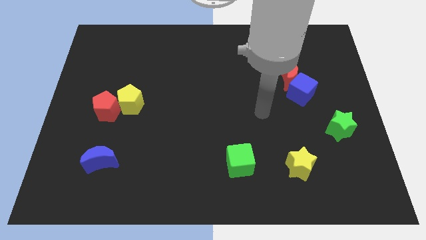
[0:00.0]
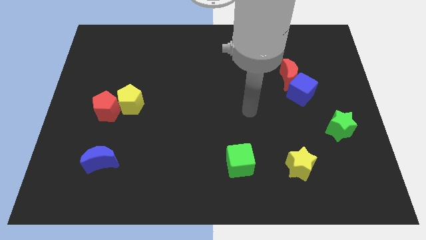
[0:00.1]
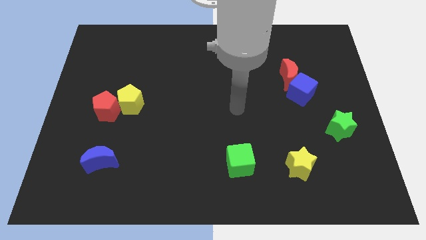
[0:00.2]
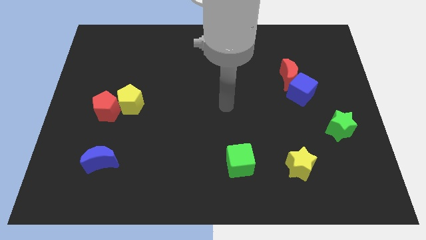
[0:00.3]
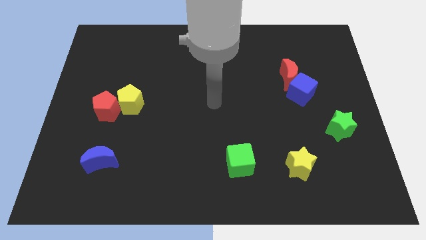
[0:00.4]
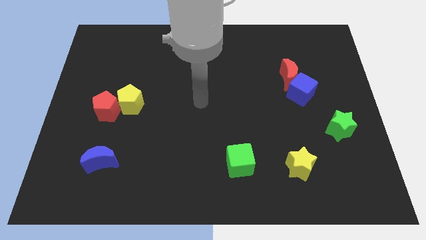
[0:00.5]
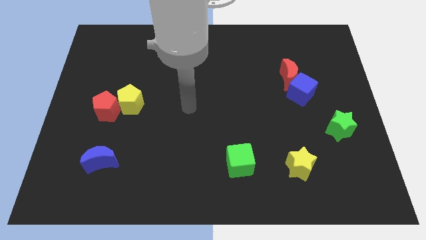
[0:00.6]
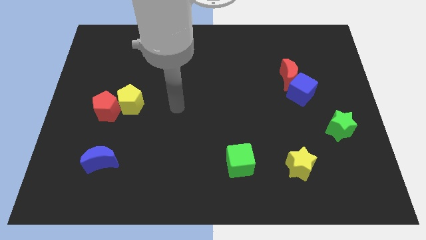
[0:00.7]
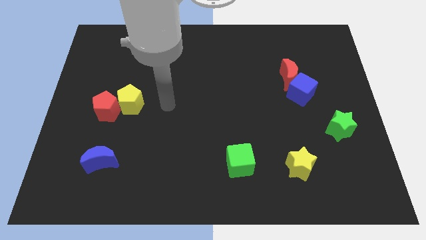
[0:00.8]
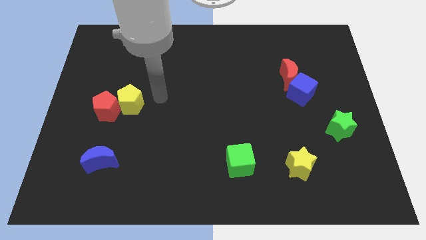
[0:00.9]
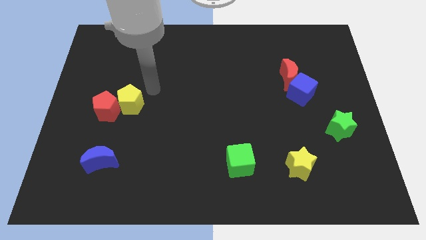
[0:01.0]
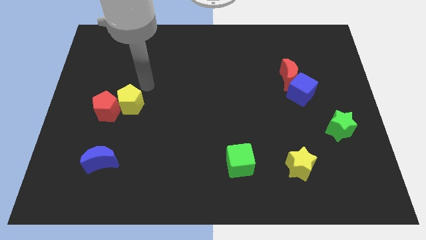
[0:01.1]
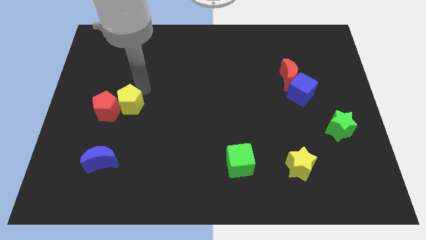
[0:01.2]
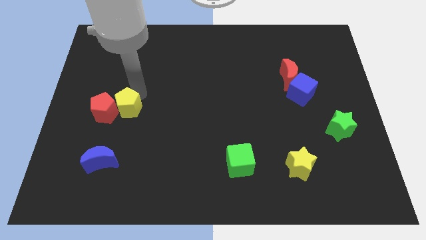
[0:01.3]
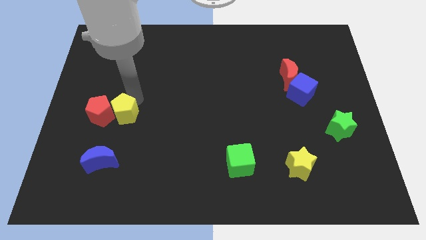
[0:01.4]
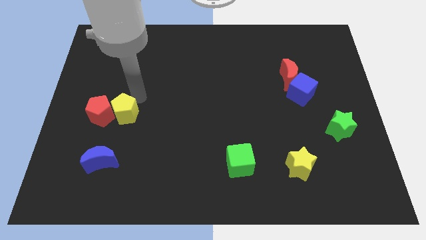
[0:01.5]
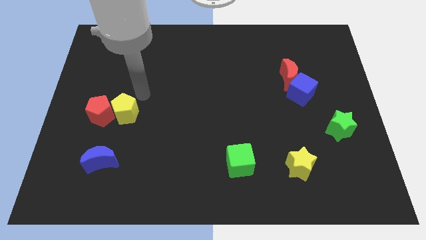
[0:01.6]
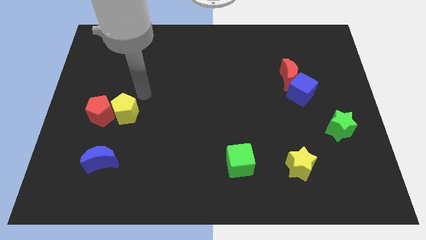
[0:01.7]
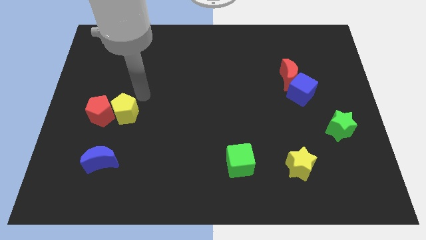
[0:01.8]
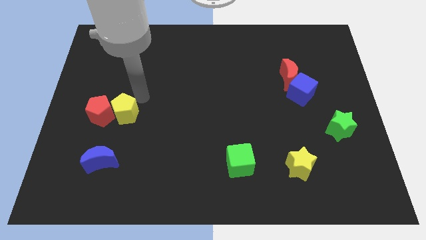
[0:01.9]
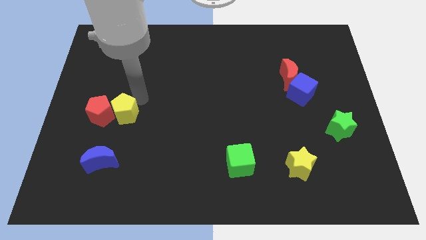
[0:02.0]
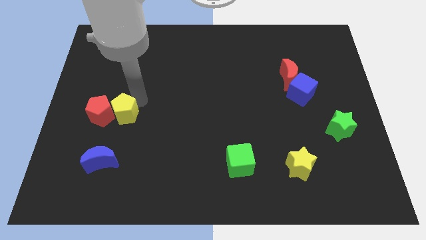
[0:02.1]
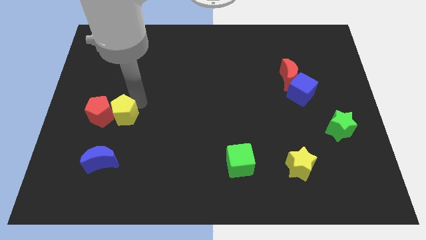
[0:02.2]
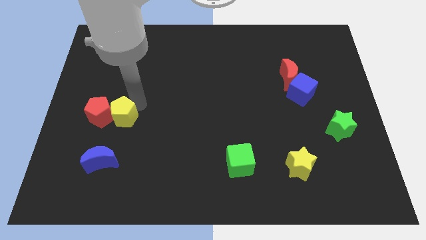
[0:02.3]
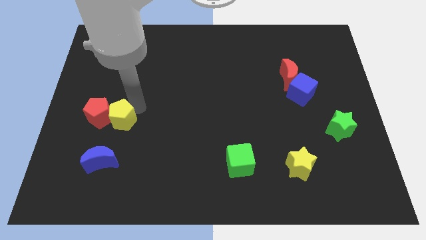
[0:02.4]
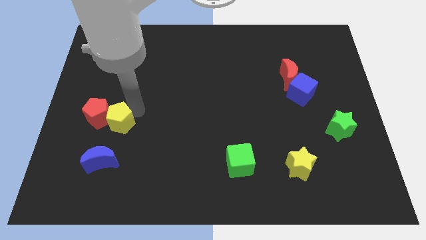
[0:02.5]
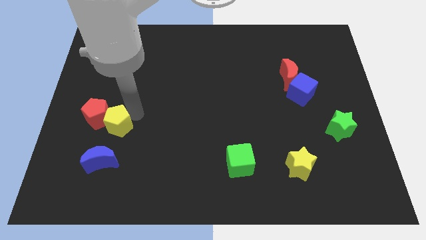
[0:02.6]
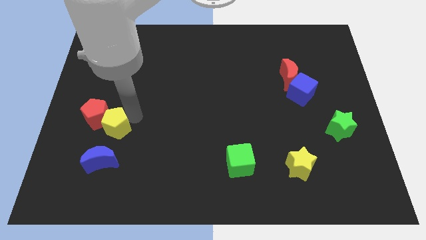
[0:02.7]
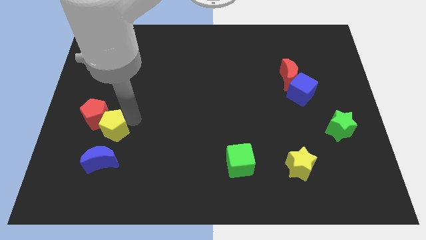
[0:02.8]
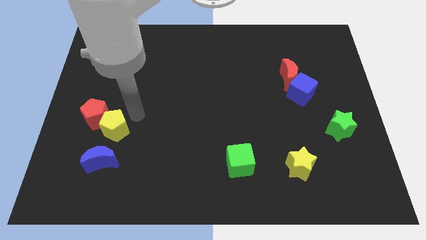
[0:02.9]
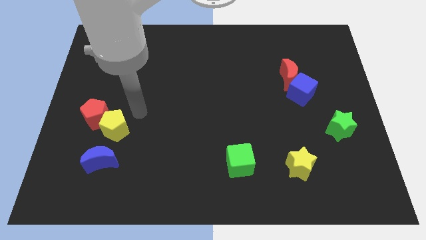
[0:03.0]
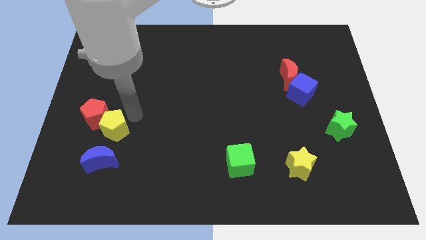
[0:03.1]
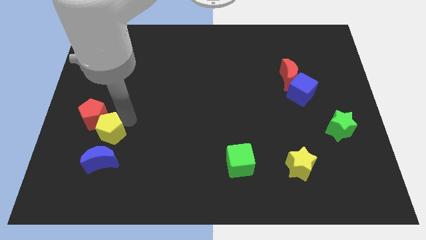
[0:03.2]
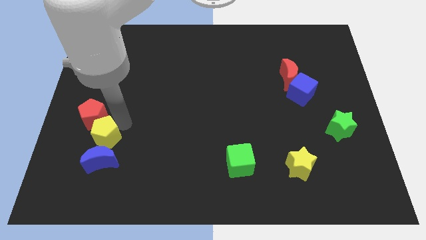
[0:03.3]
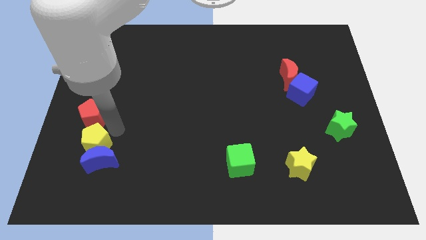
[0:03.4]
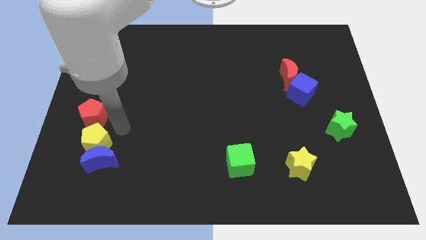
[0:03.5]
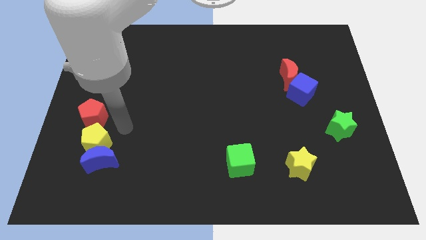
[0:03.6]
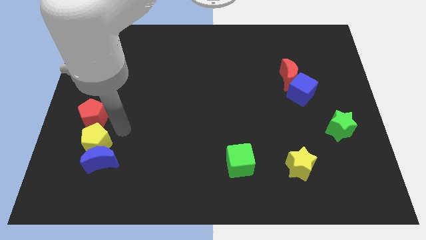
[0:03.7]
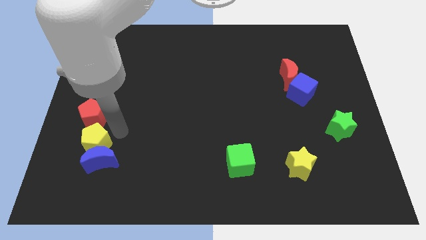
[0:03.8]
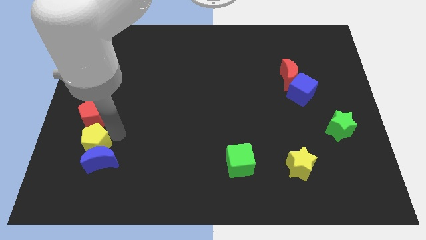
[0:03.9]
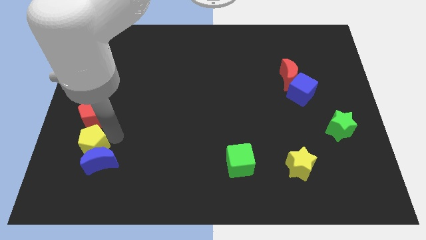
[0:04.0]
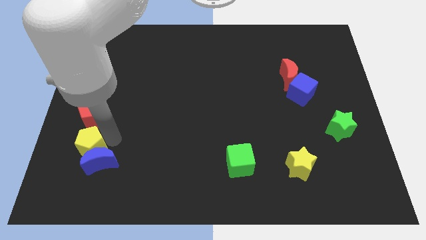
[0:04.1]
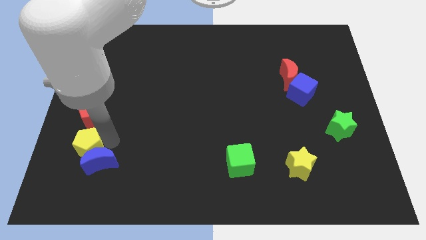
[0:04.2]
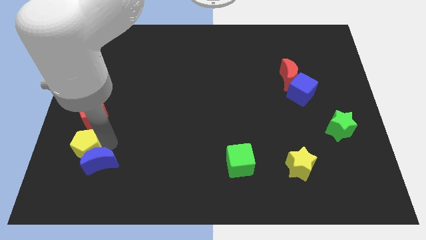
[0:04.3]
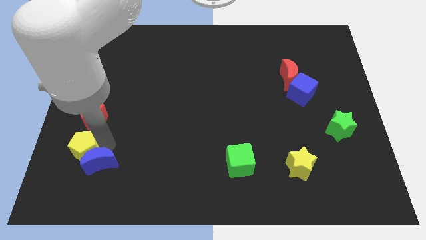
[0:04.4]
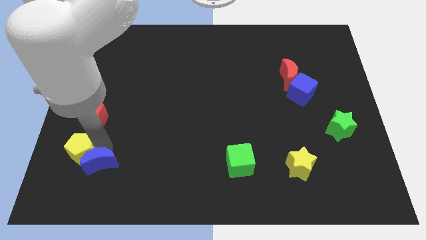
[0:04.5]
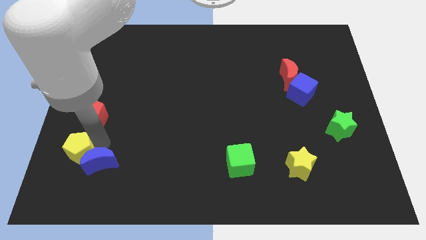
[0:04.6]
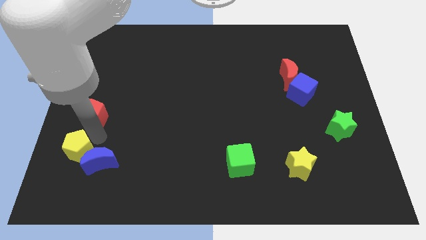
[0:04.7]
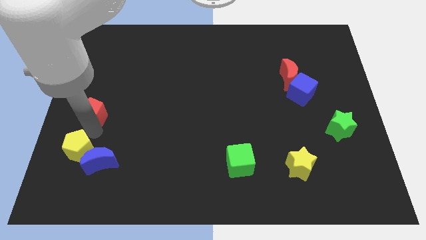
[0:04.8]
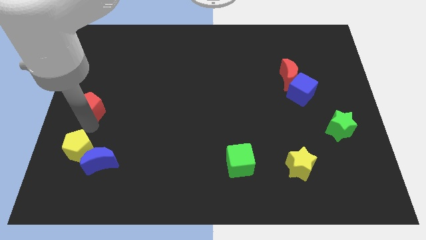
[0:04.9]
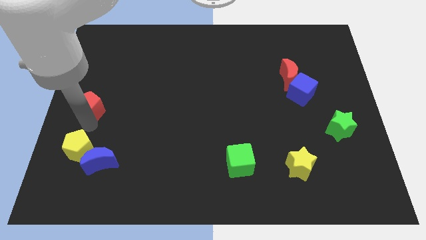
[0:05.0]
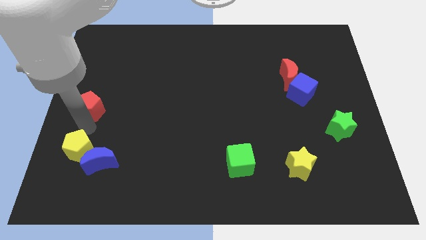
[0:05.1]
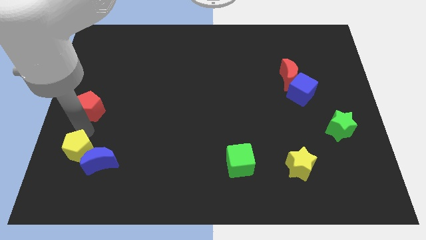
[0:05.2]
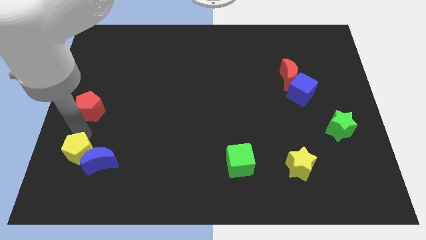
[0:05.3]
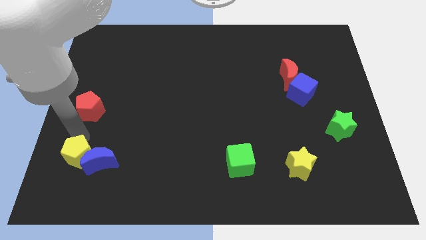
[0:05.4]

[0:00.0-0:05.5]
put the yellow pentagon diagonally down and to the left of the blue moon

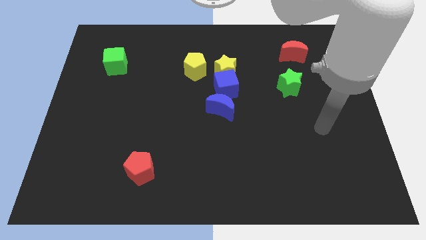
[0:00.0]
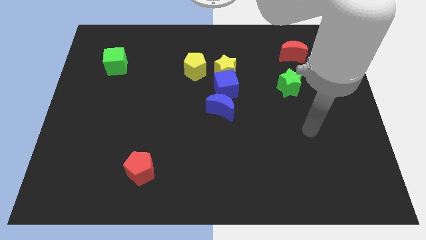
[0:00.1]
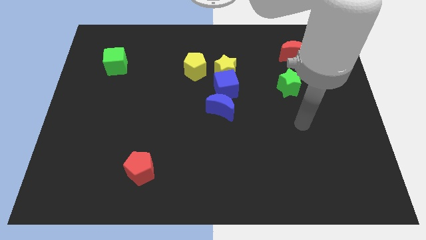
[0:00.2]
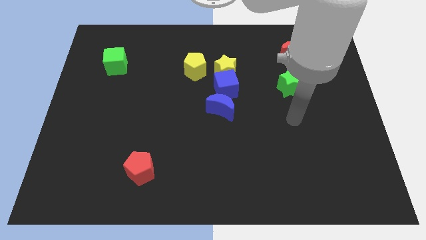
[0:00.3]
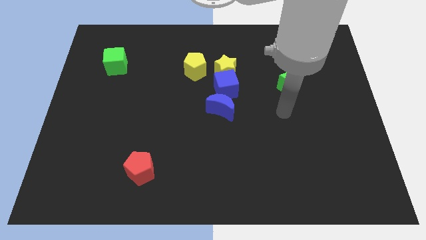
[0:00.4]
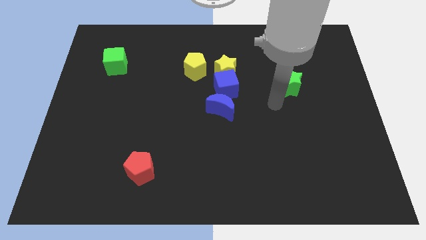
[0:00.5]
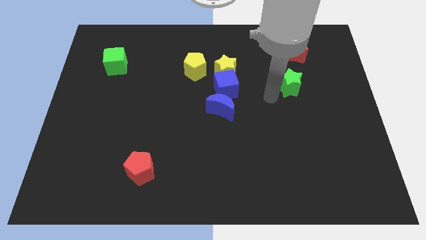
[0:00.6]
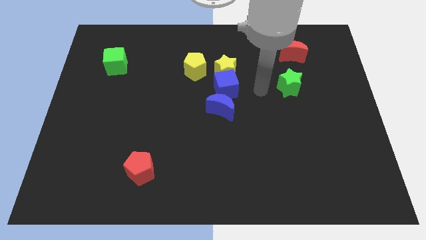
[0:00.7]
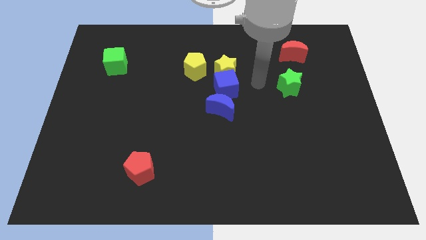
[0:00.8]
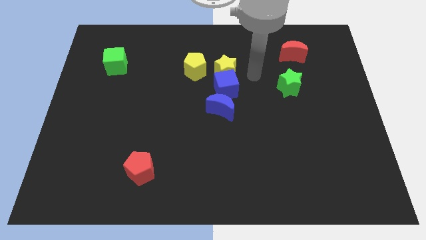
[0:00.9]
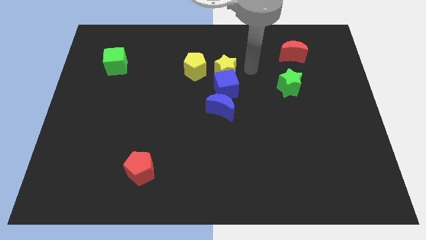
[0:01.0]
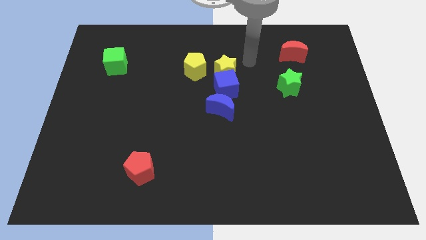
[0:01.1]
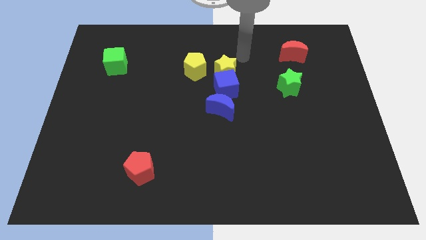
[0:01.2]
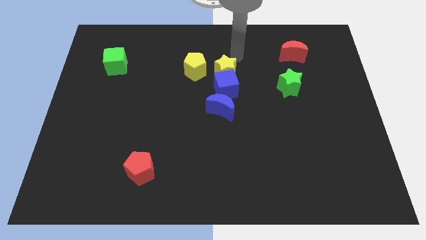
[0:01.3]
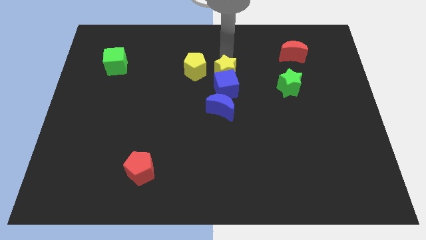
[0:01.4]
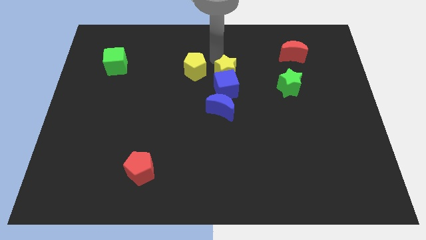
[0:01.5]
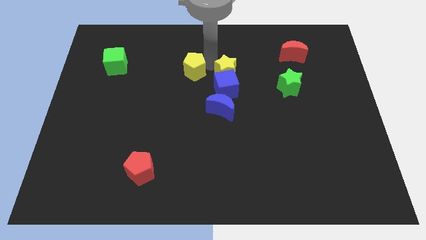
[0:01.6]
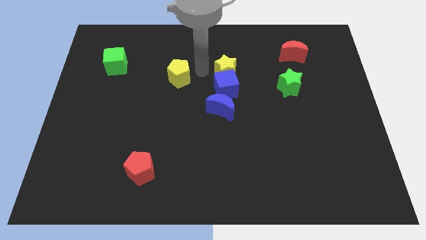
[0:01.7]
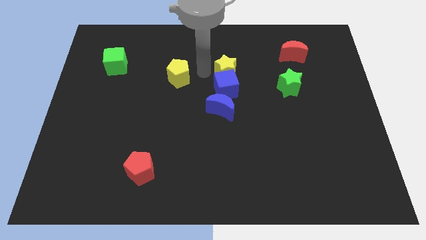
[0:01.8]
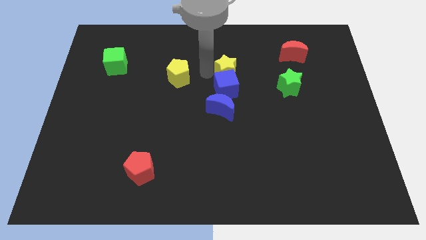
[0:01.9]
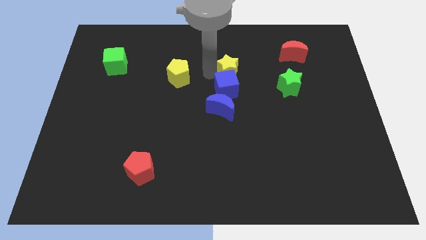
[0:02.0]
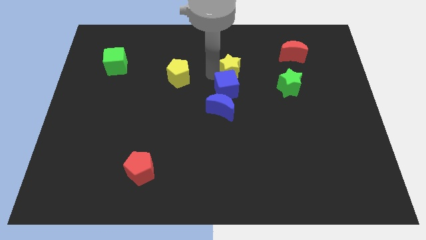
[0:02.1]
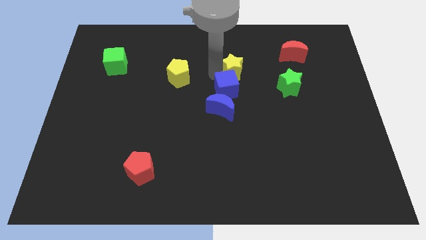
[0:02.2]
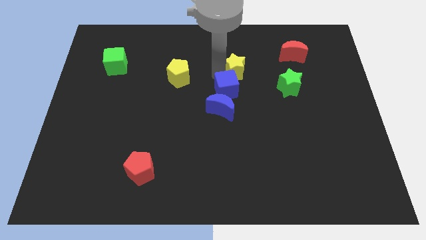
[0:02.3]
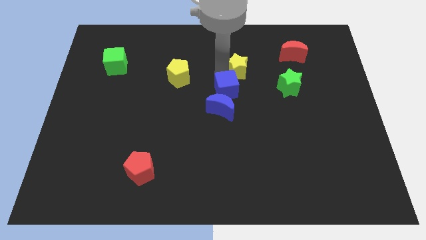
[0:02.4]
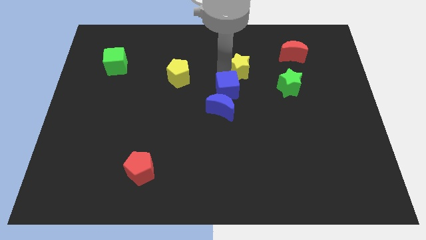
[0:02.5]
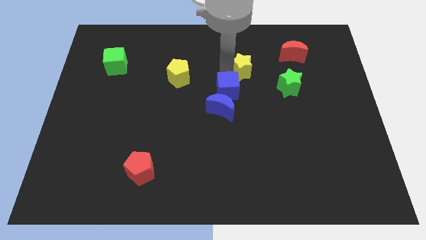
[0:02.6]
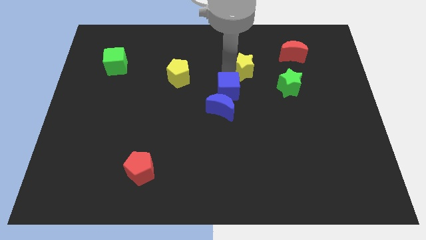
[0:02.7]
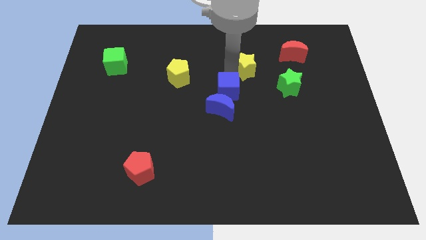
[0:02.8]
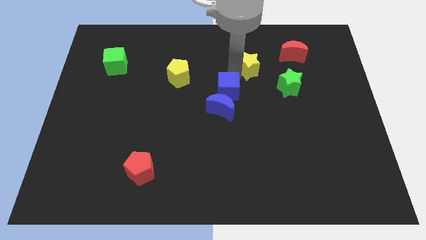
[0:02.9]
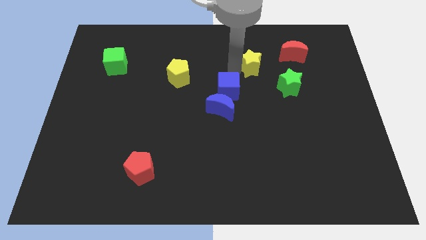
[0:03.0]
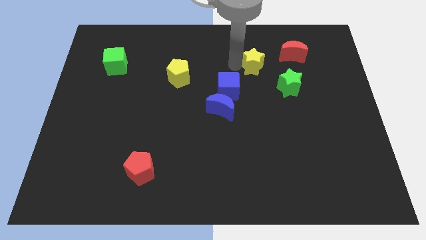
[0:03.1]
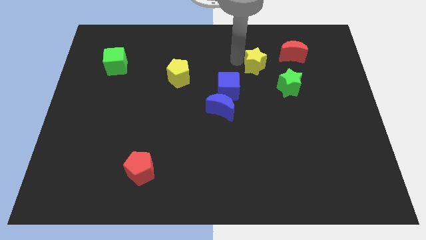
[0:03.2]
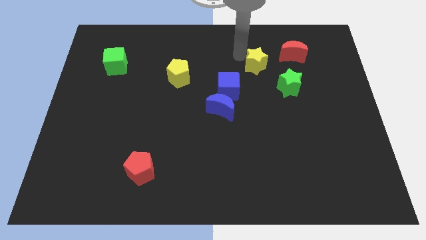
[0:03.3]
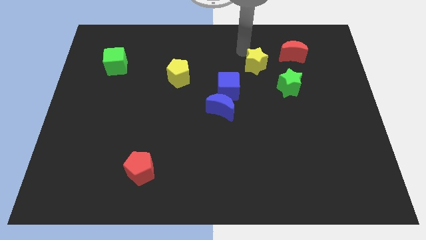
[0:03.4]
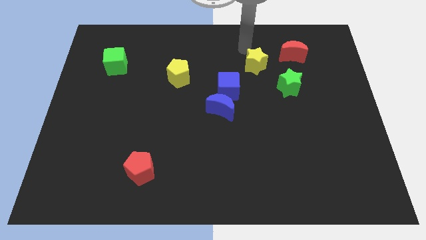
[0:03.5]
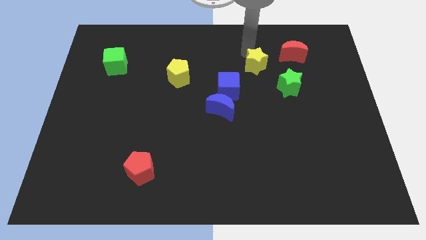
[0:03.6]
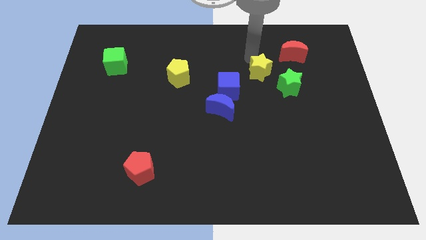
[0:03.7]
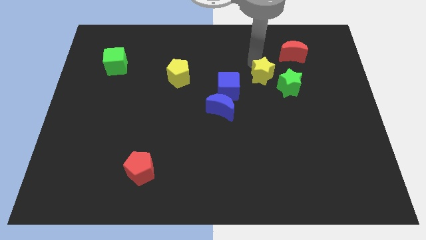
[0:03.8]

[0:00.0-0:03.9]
move the yellow star right of the blue cube
